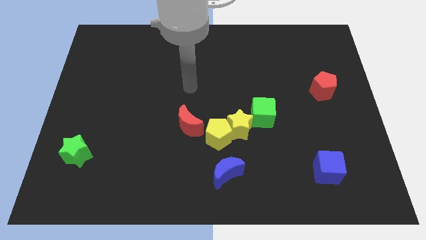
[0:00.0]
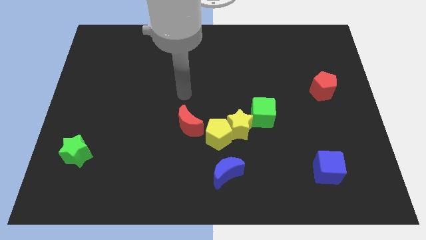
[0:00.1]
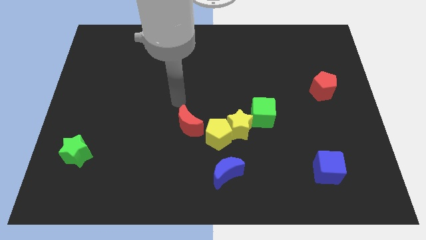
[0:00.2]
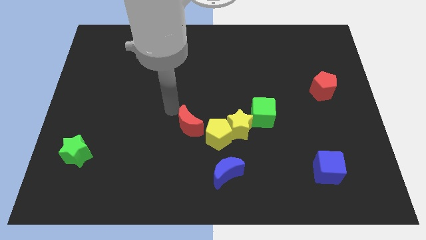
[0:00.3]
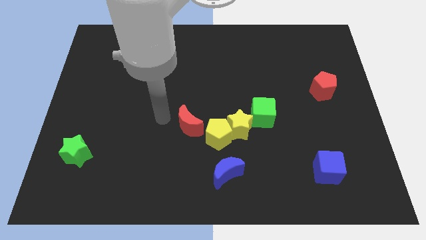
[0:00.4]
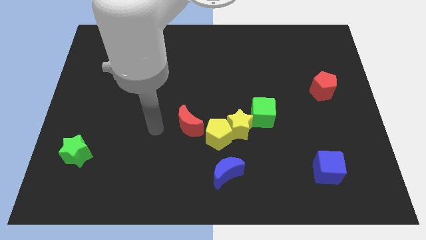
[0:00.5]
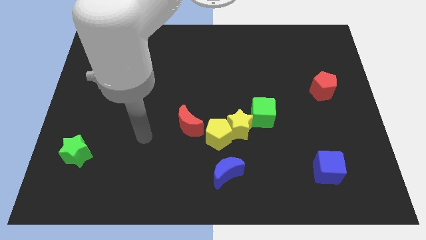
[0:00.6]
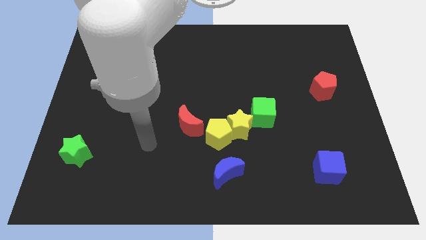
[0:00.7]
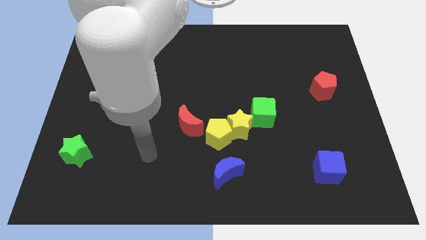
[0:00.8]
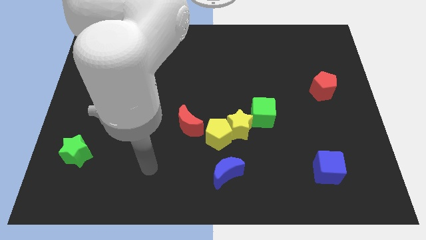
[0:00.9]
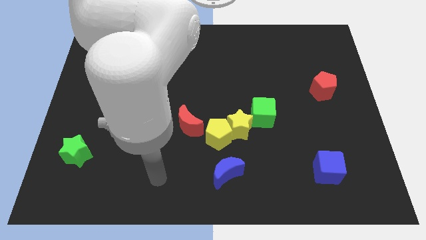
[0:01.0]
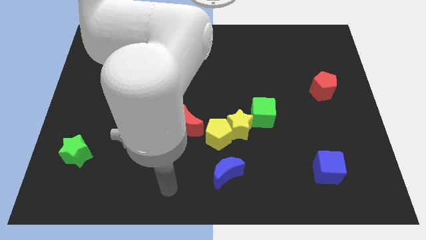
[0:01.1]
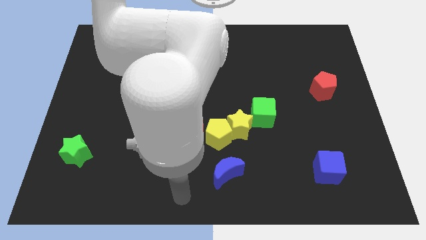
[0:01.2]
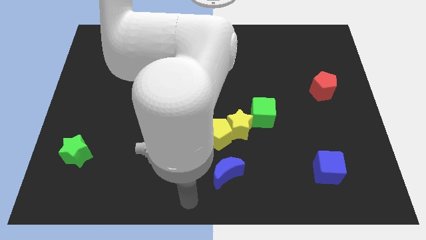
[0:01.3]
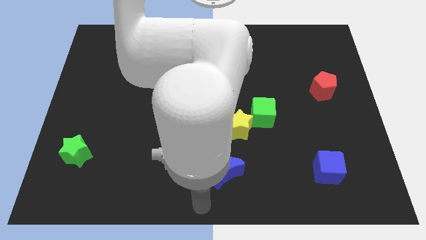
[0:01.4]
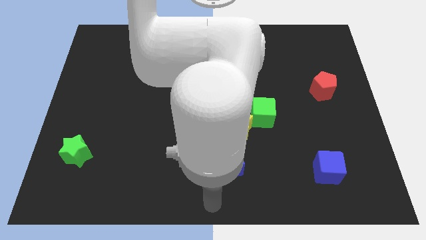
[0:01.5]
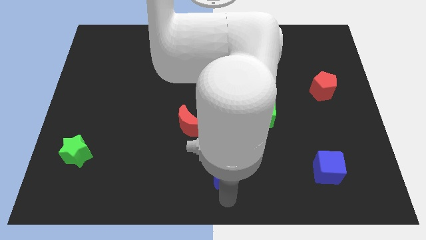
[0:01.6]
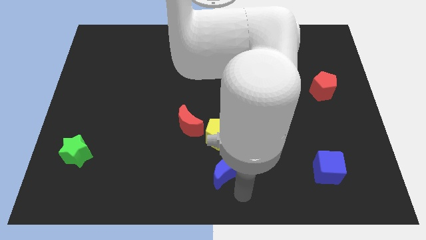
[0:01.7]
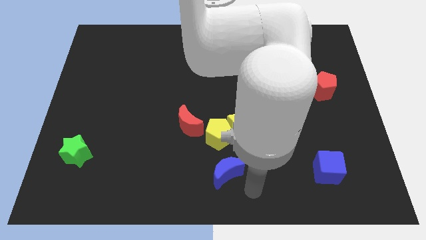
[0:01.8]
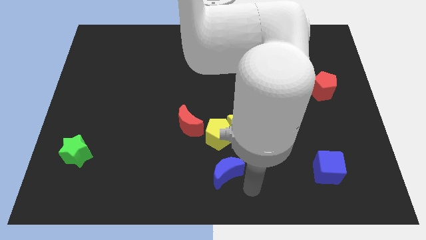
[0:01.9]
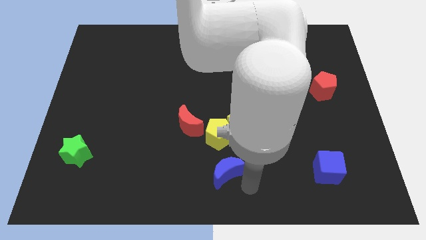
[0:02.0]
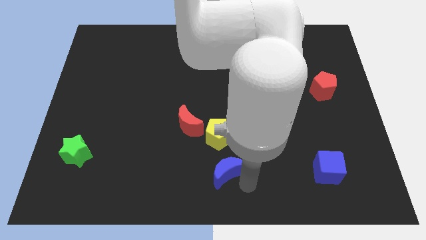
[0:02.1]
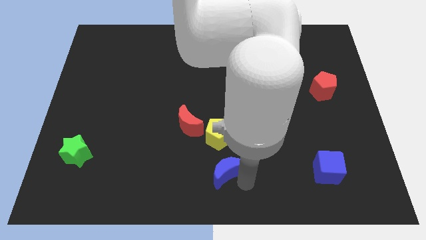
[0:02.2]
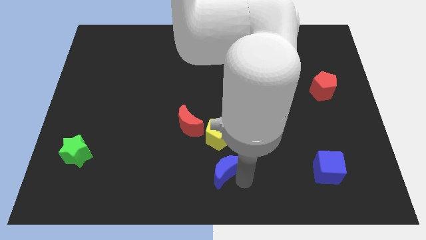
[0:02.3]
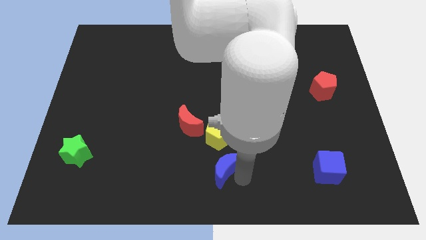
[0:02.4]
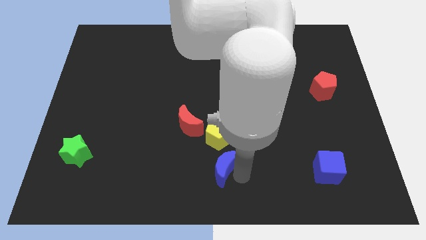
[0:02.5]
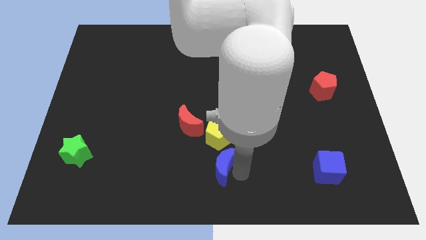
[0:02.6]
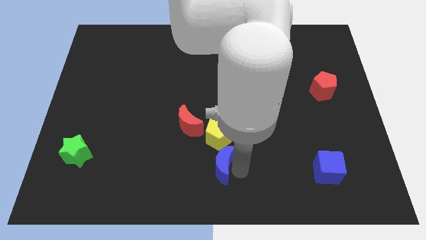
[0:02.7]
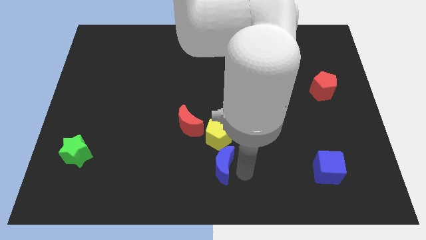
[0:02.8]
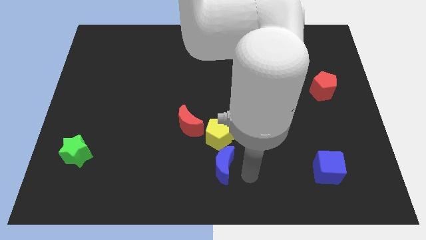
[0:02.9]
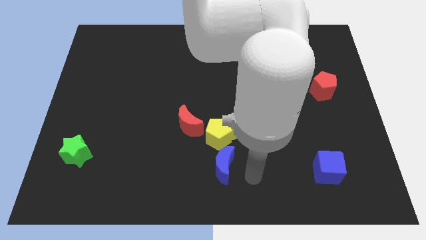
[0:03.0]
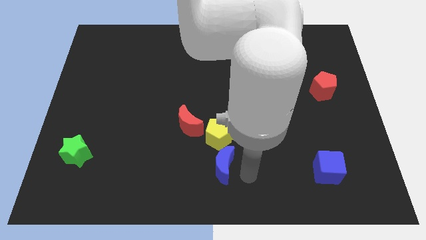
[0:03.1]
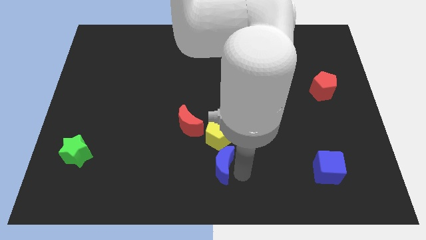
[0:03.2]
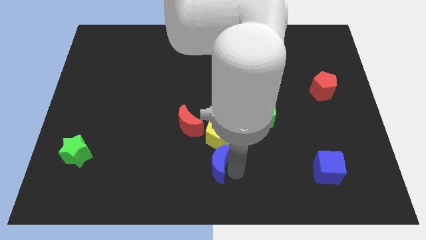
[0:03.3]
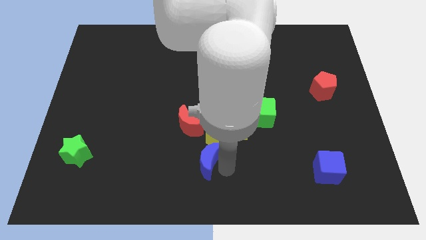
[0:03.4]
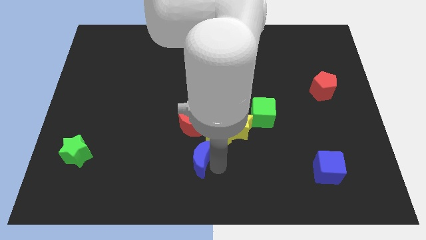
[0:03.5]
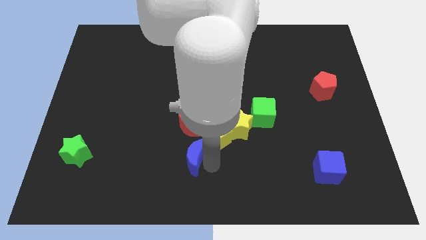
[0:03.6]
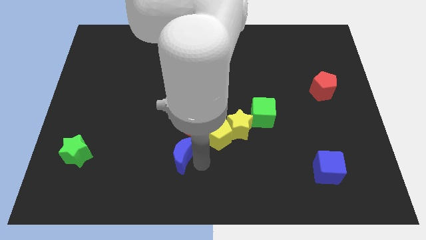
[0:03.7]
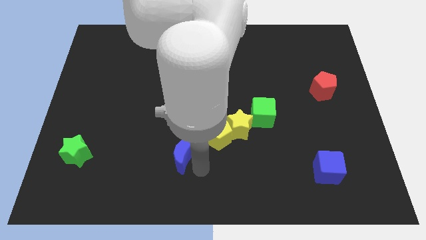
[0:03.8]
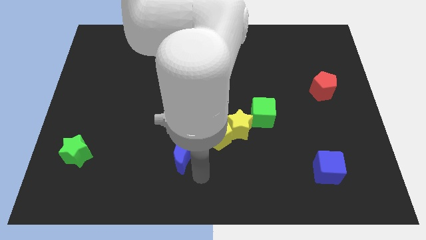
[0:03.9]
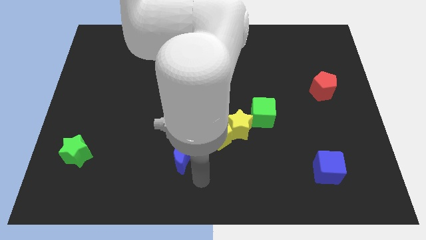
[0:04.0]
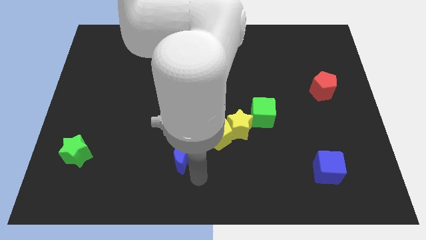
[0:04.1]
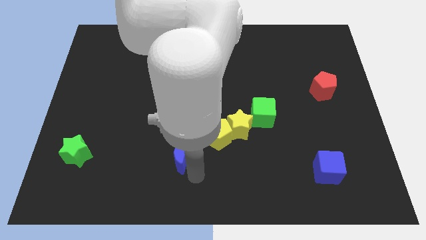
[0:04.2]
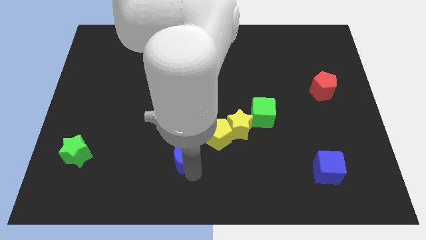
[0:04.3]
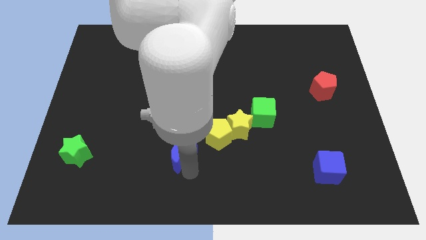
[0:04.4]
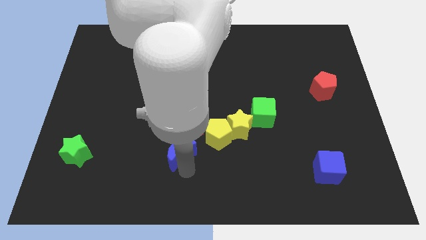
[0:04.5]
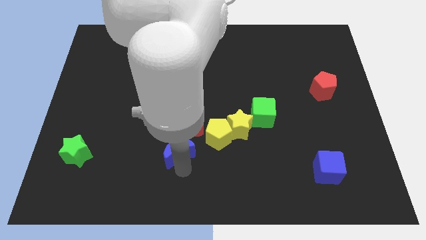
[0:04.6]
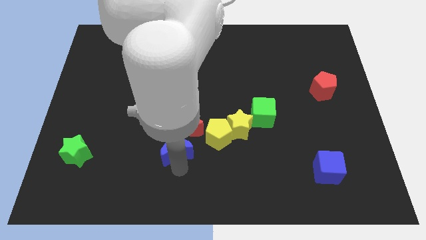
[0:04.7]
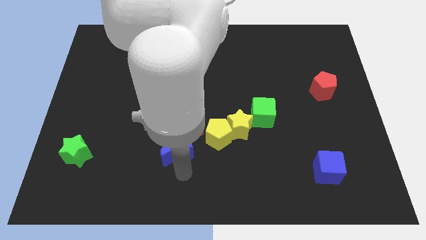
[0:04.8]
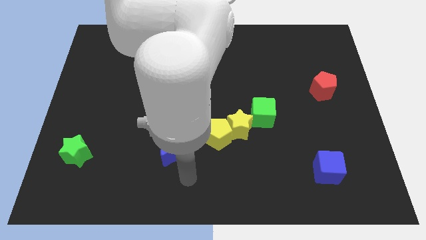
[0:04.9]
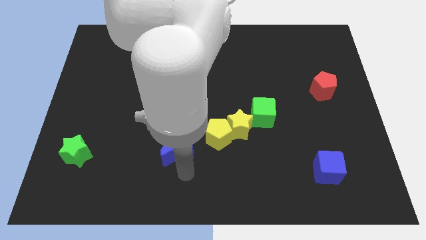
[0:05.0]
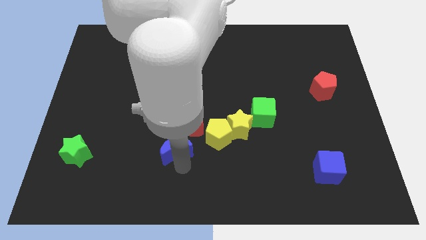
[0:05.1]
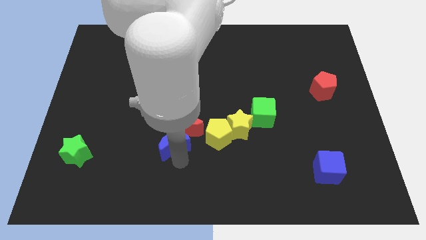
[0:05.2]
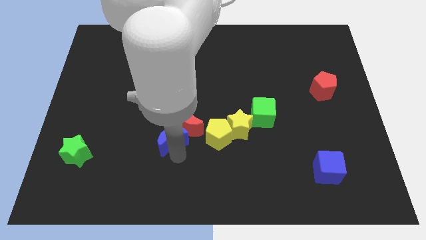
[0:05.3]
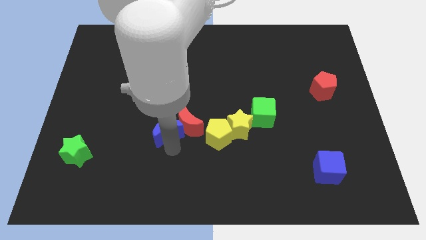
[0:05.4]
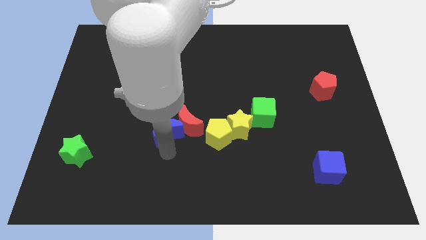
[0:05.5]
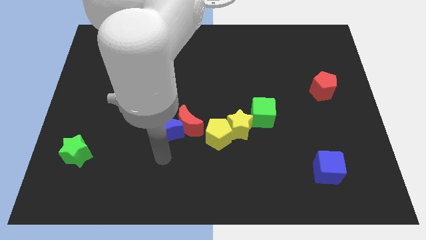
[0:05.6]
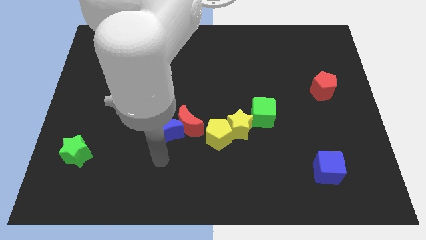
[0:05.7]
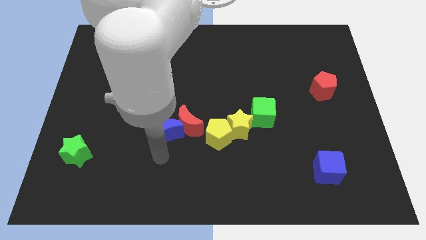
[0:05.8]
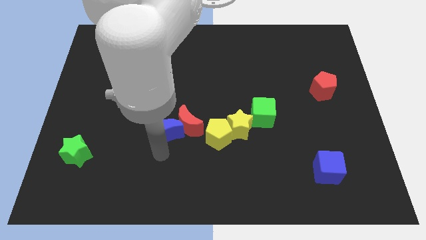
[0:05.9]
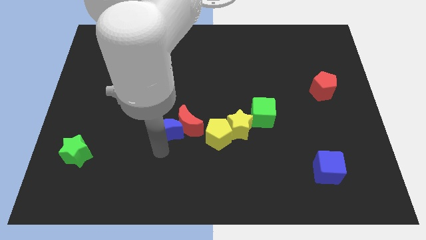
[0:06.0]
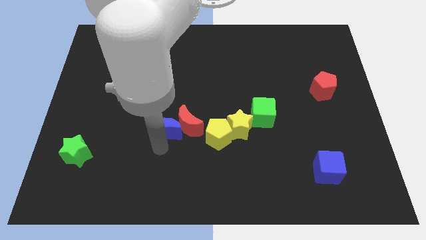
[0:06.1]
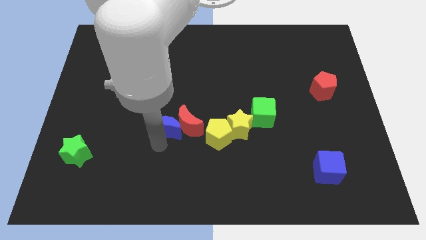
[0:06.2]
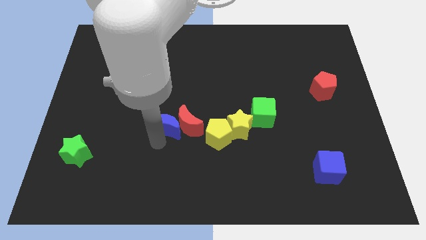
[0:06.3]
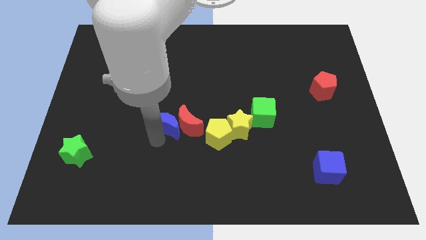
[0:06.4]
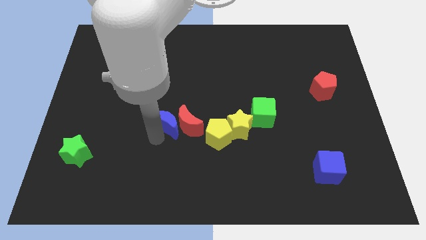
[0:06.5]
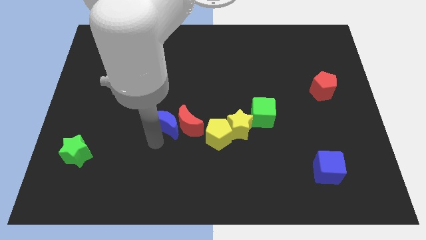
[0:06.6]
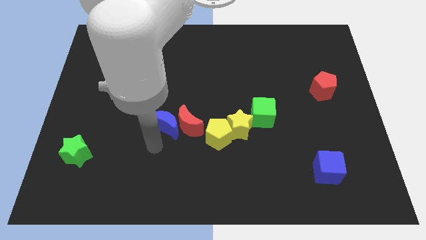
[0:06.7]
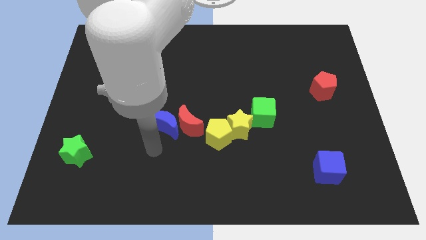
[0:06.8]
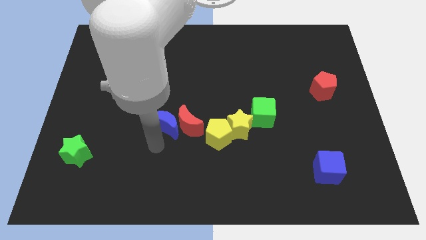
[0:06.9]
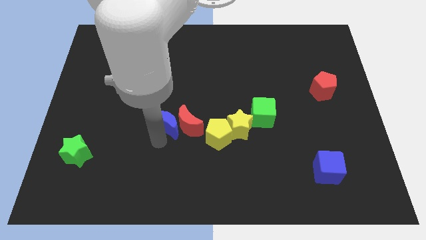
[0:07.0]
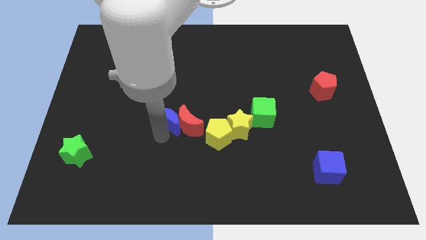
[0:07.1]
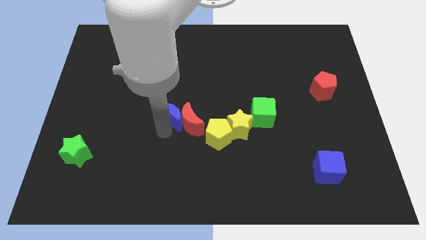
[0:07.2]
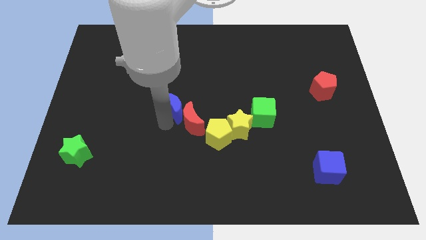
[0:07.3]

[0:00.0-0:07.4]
slightly push the blue moon up

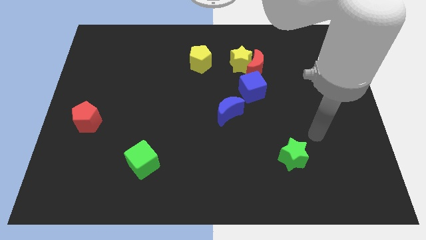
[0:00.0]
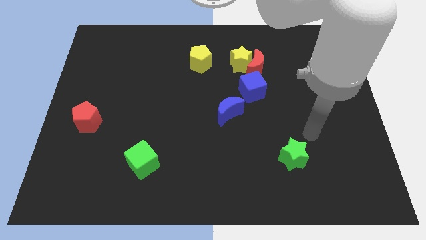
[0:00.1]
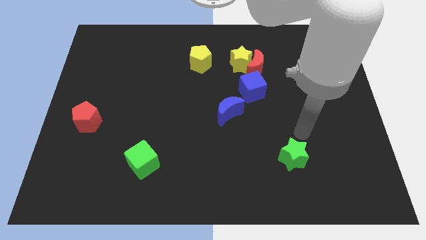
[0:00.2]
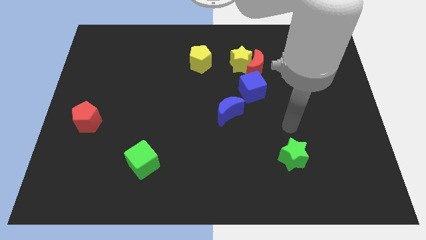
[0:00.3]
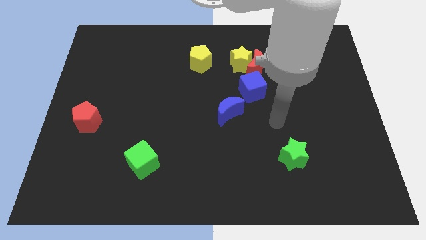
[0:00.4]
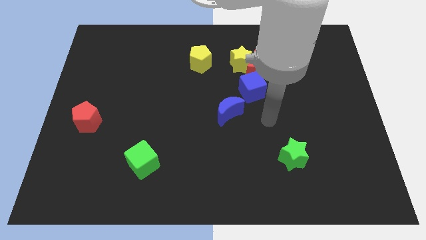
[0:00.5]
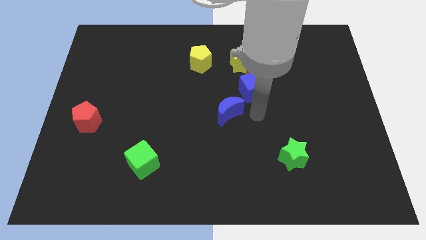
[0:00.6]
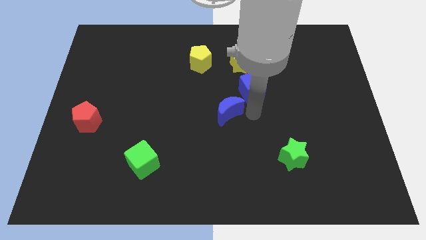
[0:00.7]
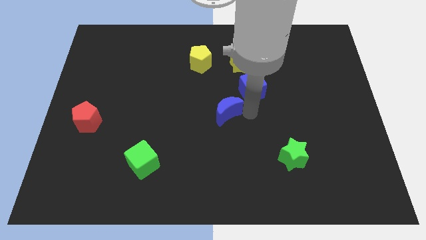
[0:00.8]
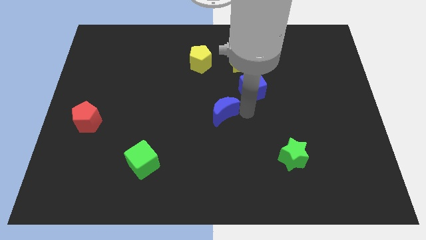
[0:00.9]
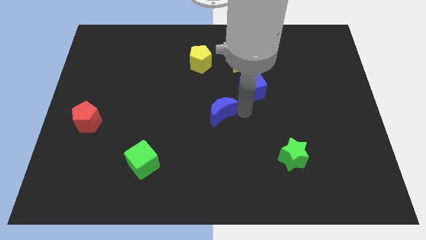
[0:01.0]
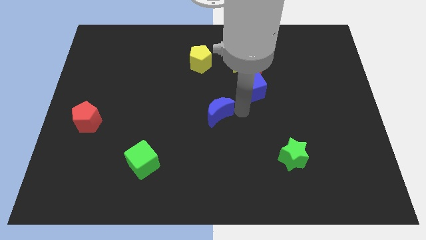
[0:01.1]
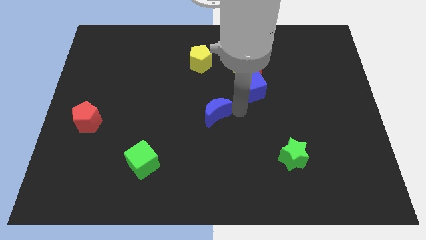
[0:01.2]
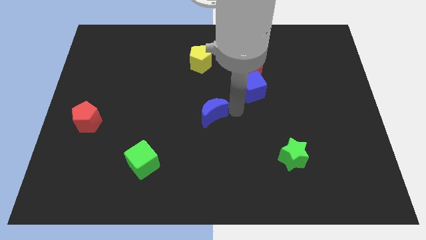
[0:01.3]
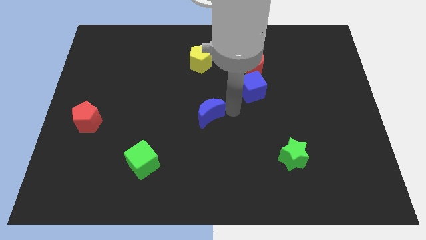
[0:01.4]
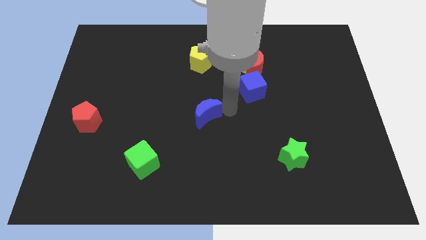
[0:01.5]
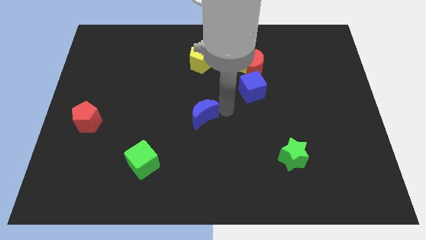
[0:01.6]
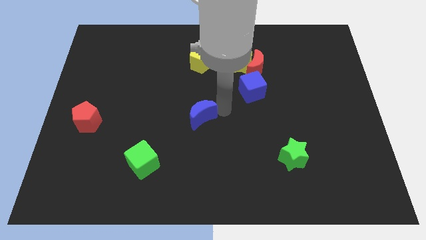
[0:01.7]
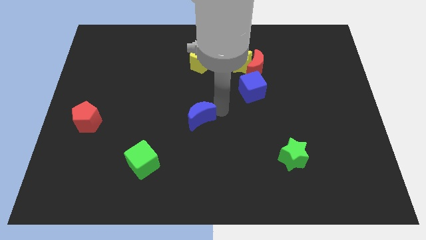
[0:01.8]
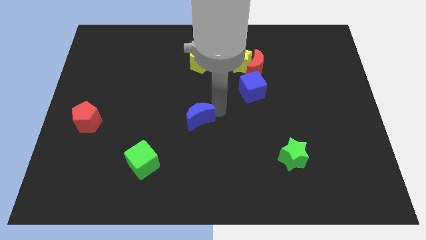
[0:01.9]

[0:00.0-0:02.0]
slide the blue moon left a bit
